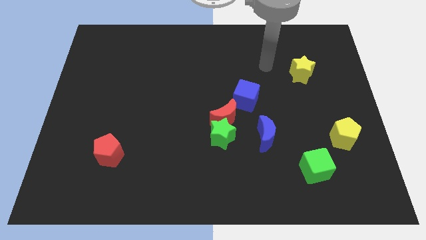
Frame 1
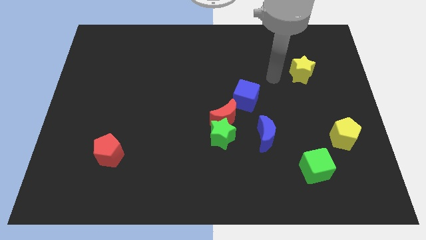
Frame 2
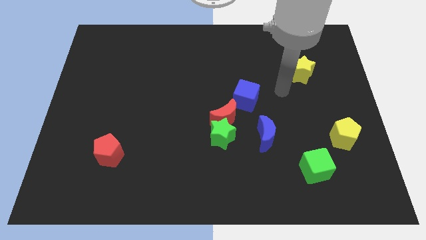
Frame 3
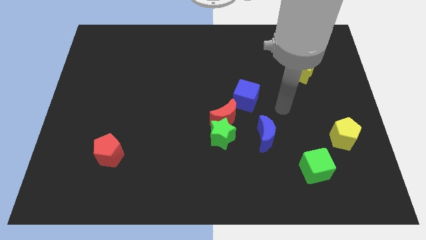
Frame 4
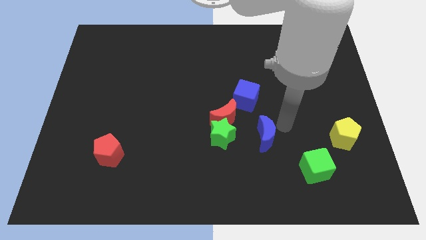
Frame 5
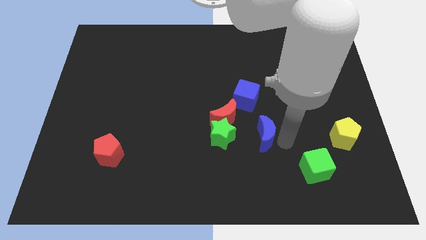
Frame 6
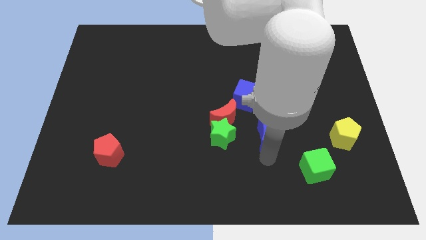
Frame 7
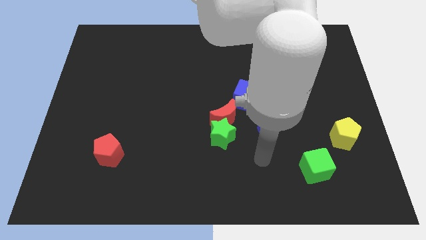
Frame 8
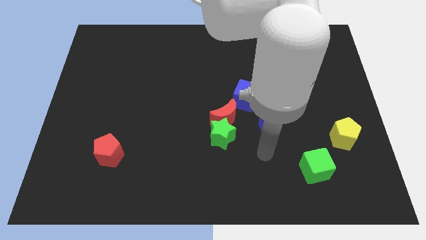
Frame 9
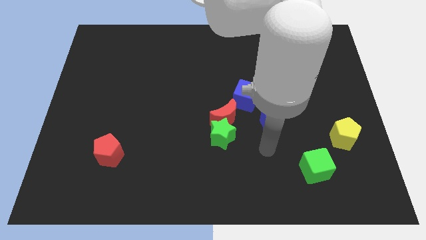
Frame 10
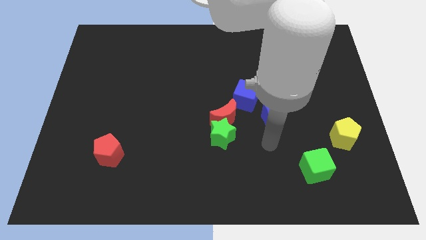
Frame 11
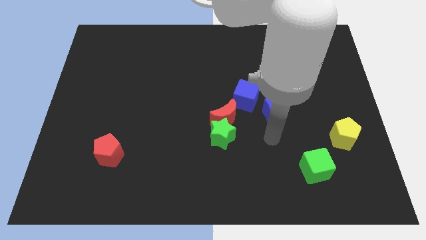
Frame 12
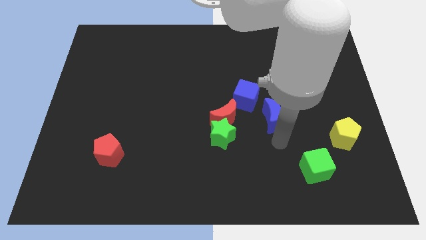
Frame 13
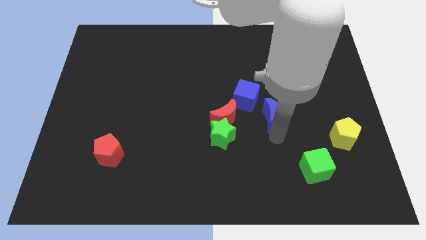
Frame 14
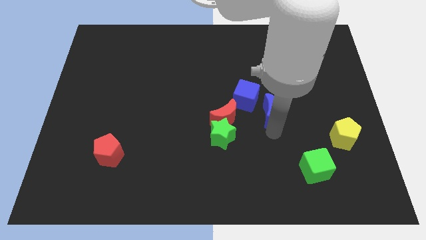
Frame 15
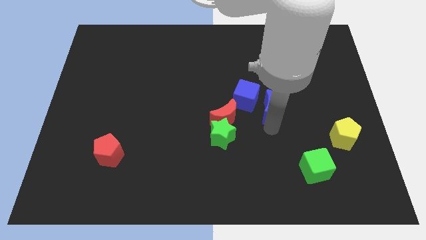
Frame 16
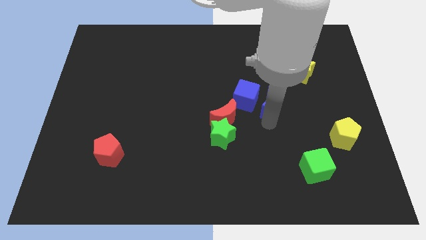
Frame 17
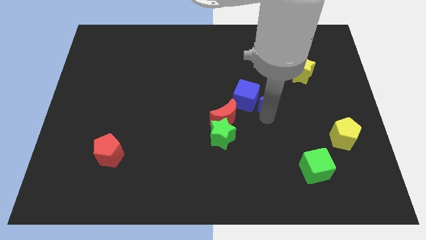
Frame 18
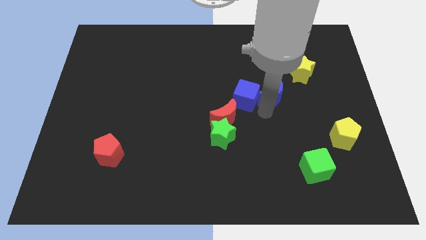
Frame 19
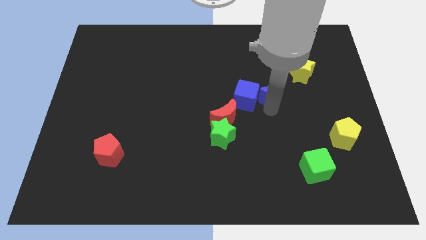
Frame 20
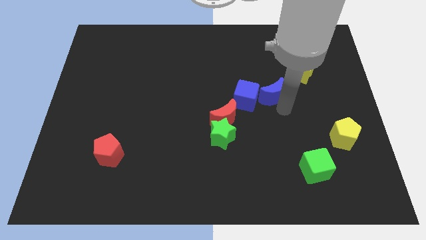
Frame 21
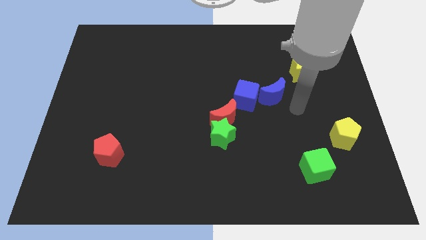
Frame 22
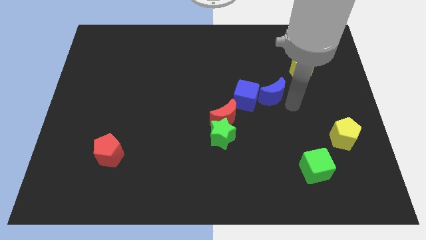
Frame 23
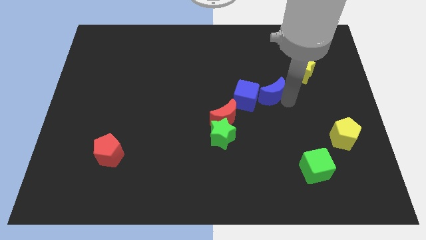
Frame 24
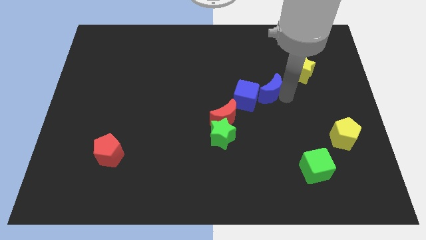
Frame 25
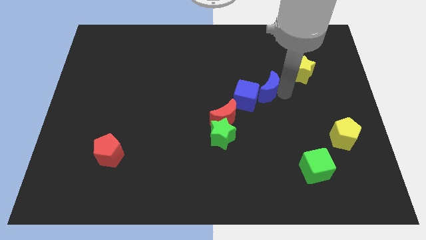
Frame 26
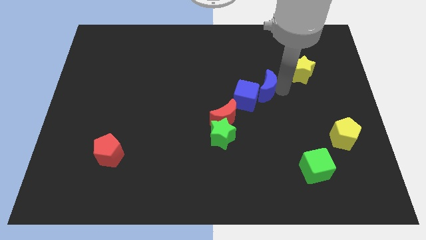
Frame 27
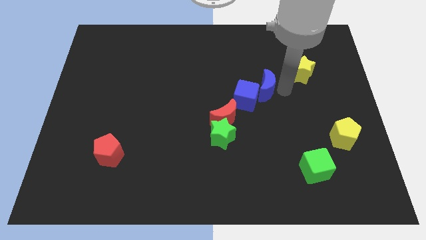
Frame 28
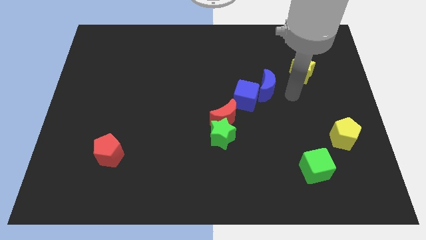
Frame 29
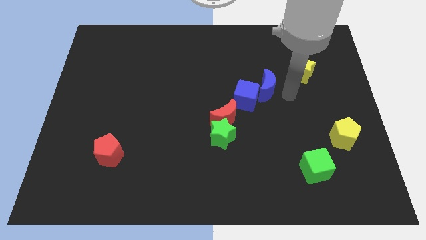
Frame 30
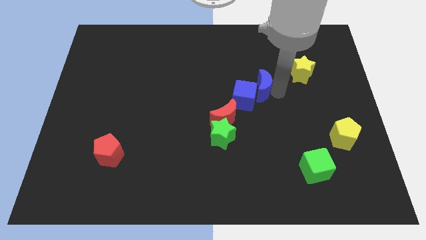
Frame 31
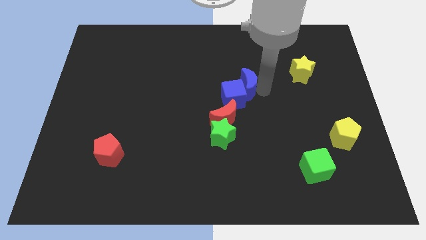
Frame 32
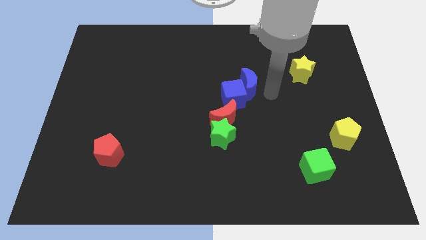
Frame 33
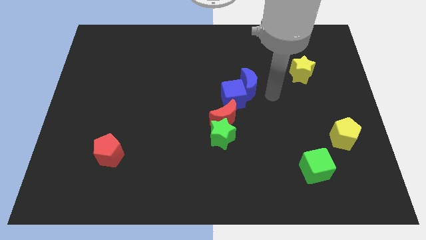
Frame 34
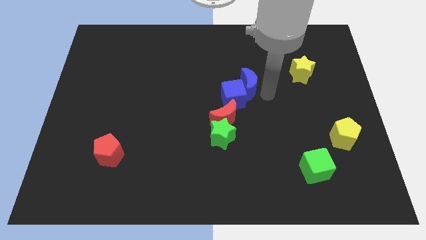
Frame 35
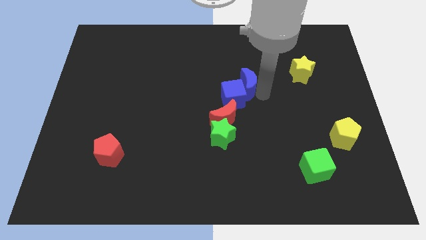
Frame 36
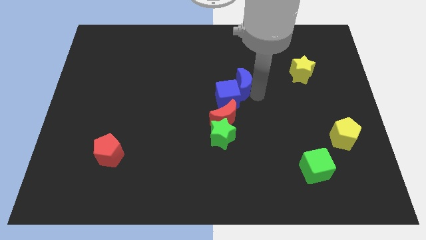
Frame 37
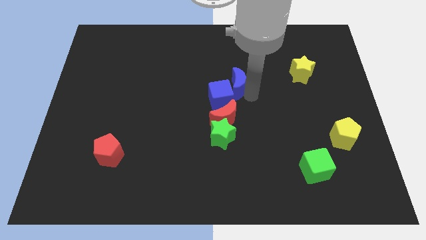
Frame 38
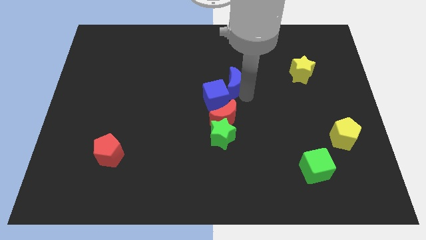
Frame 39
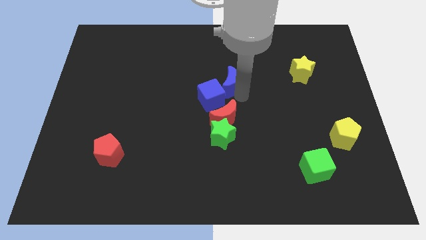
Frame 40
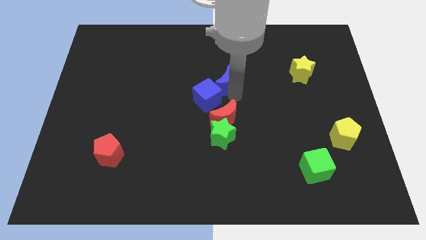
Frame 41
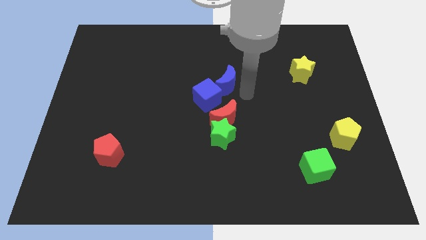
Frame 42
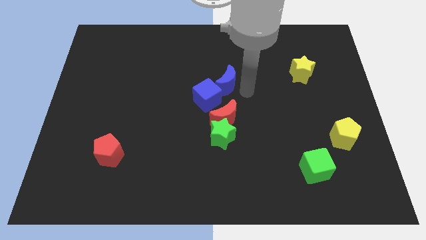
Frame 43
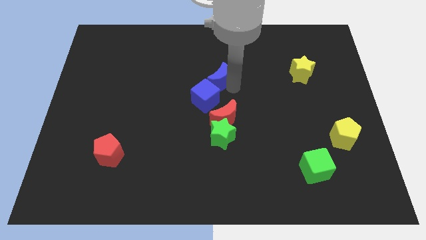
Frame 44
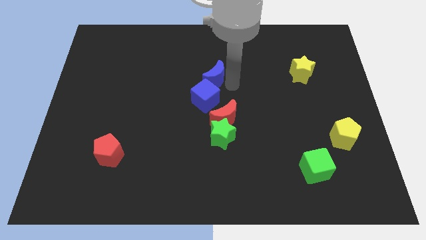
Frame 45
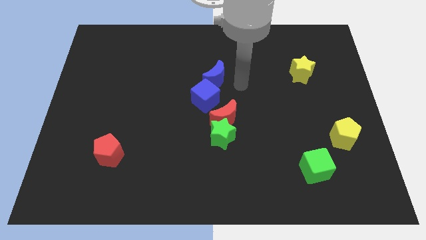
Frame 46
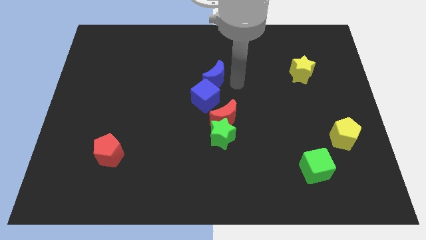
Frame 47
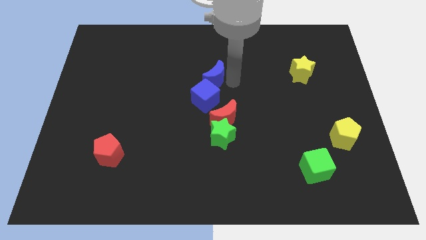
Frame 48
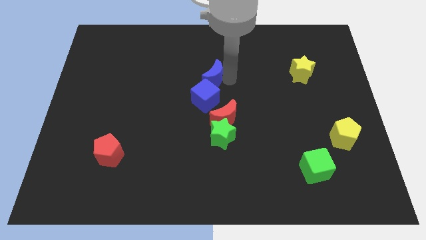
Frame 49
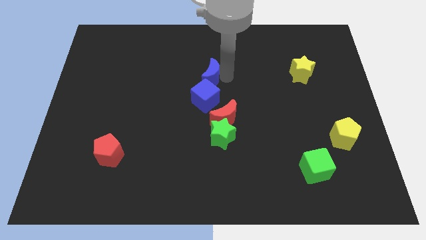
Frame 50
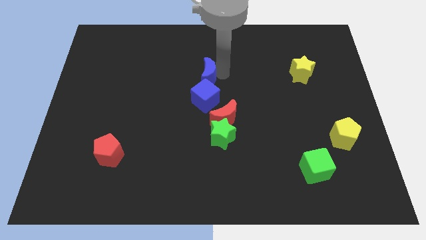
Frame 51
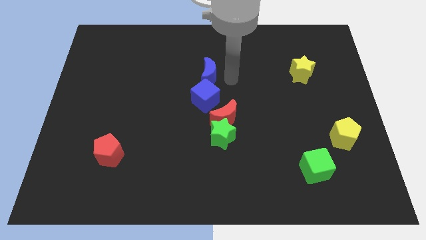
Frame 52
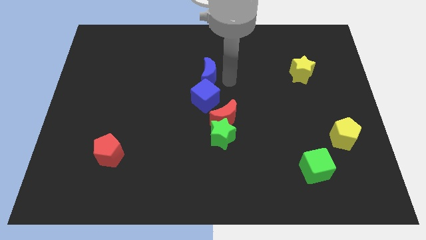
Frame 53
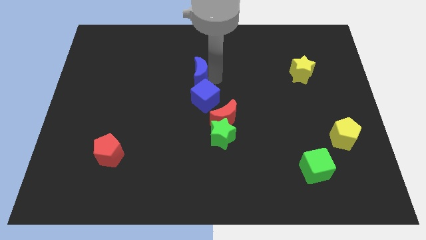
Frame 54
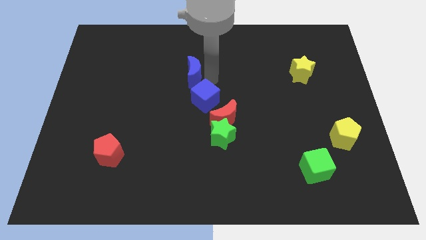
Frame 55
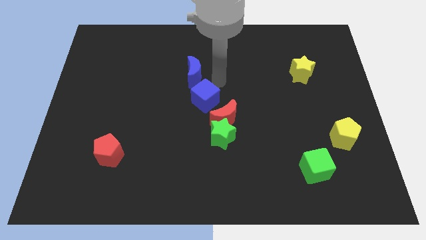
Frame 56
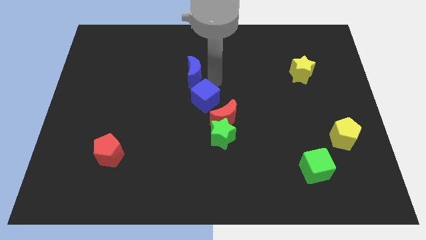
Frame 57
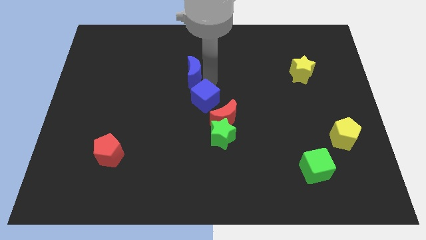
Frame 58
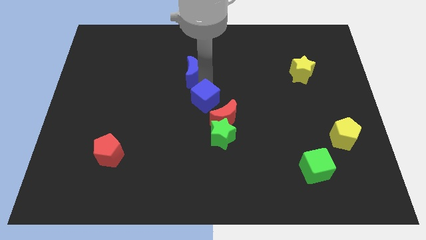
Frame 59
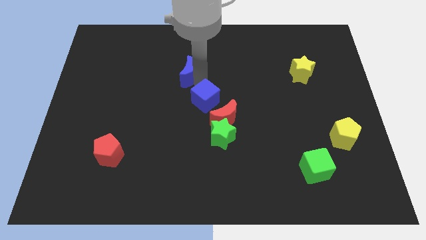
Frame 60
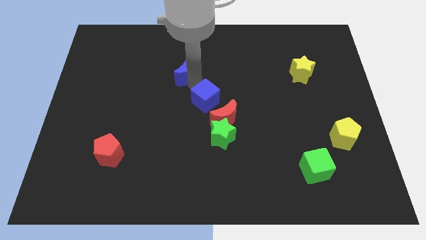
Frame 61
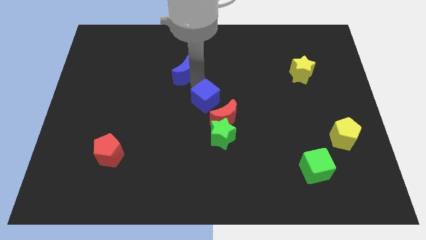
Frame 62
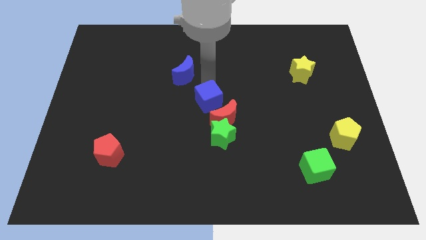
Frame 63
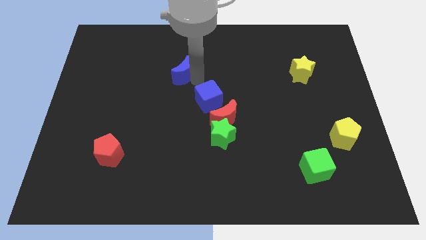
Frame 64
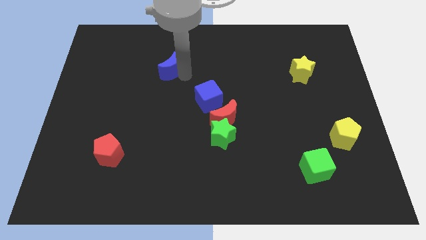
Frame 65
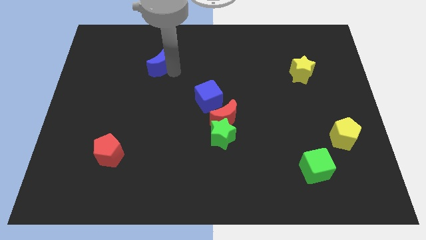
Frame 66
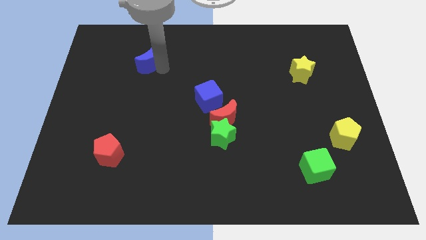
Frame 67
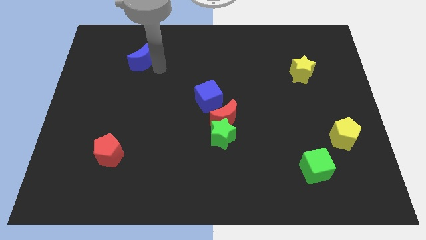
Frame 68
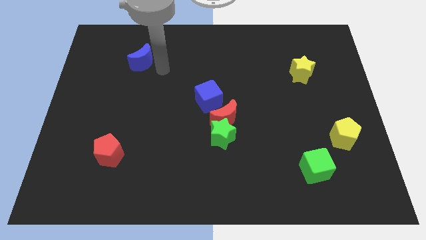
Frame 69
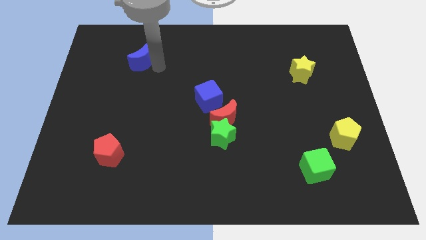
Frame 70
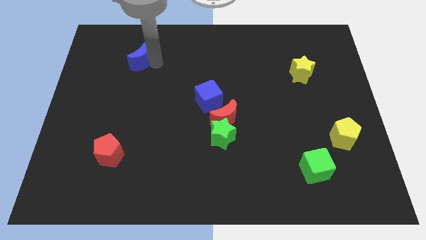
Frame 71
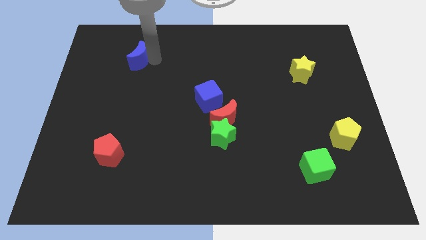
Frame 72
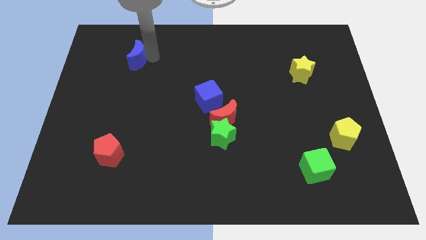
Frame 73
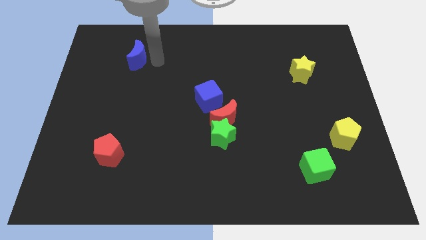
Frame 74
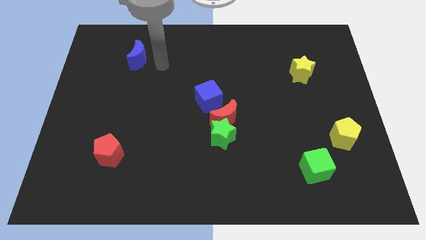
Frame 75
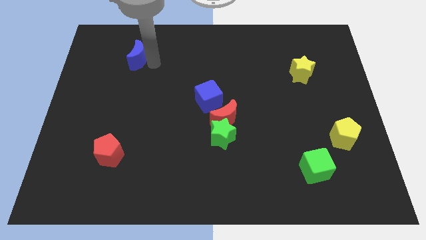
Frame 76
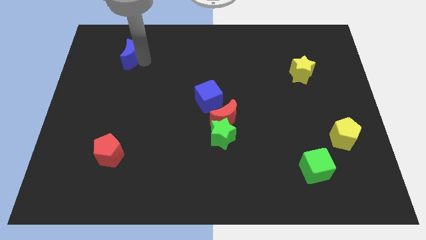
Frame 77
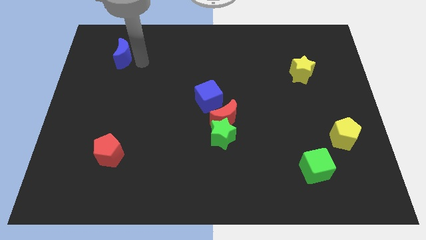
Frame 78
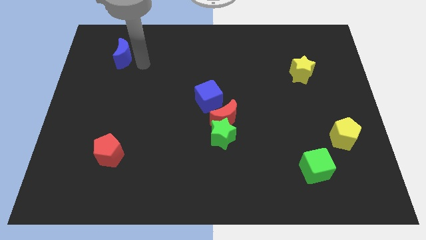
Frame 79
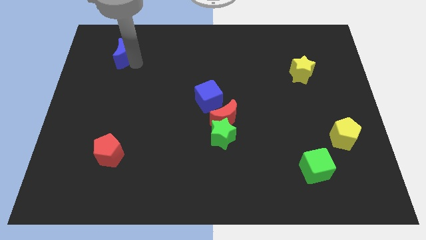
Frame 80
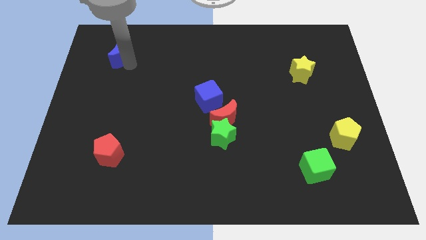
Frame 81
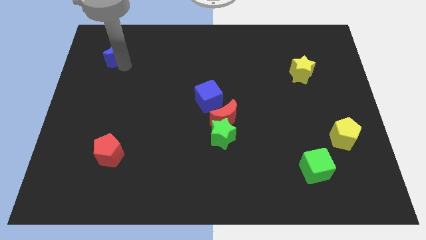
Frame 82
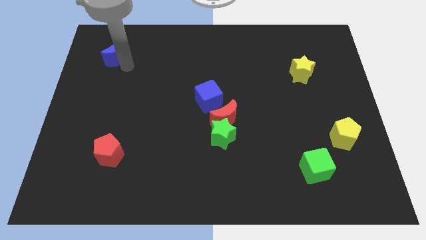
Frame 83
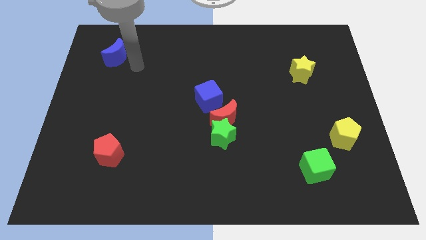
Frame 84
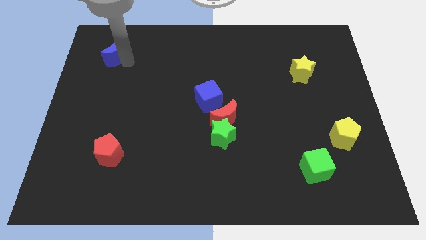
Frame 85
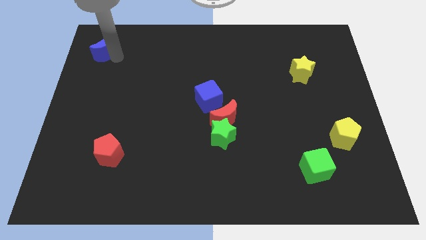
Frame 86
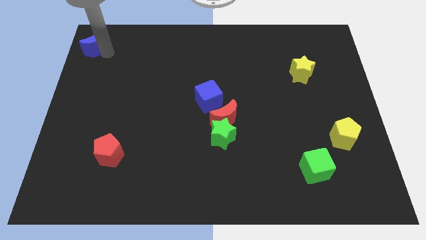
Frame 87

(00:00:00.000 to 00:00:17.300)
move the blue moon to the top left corner
